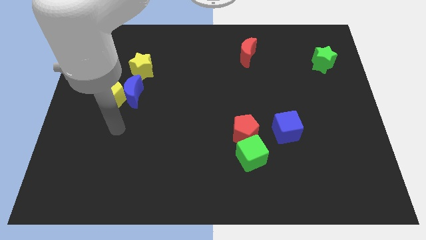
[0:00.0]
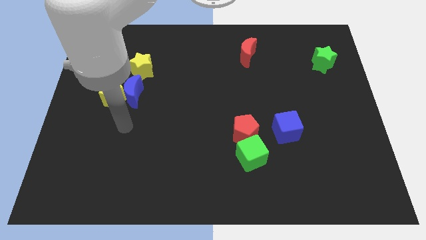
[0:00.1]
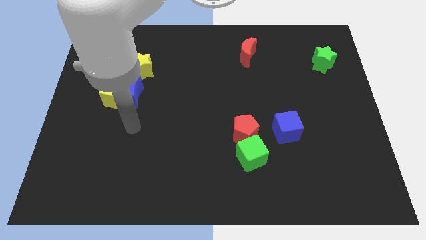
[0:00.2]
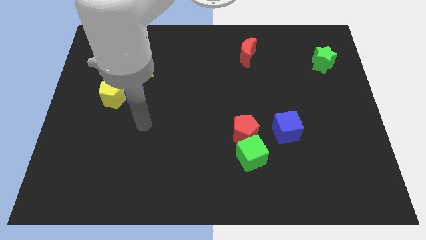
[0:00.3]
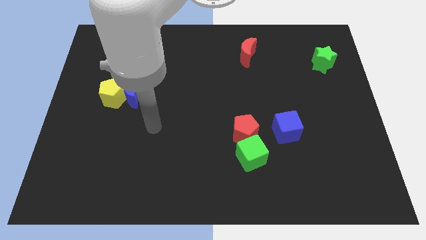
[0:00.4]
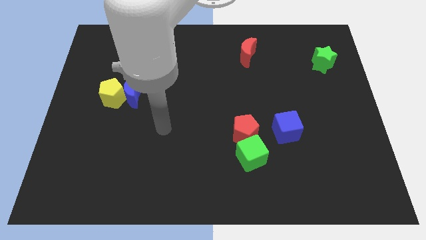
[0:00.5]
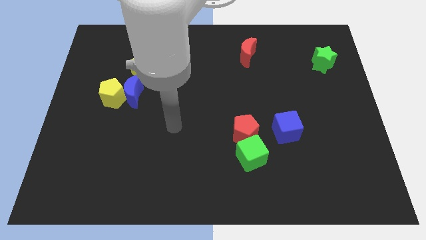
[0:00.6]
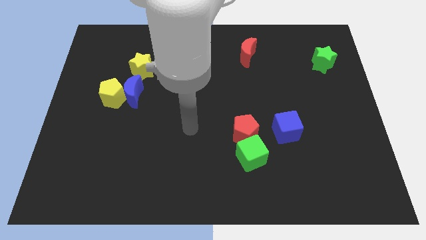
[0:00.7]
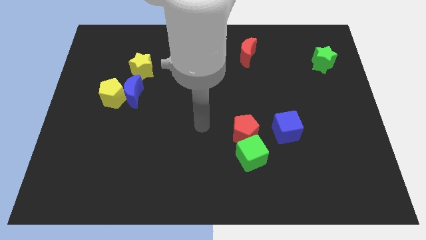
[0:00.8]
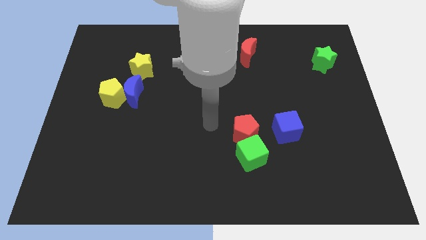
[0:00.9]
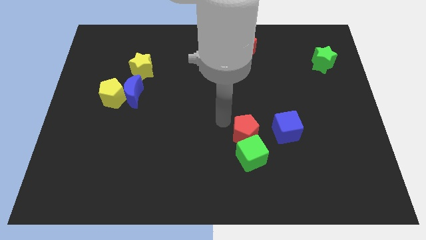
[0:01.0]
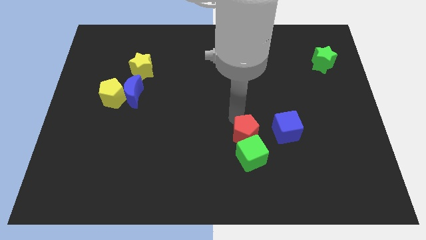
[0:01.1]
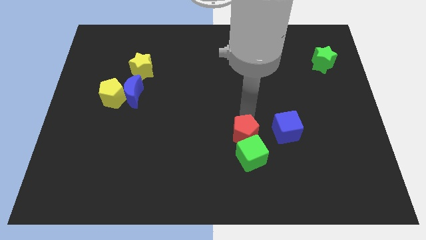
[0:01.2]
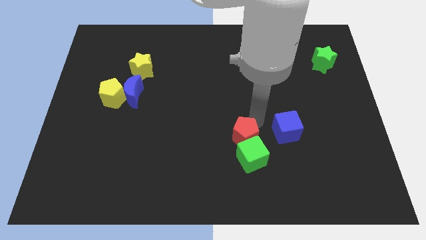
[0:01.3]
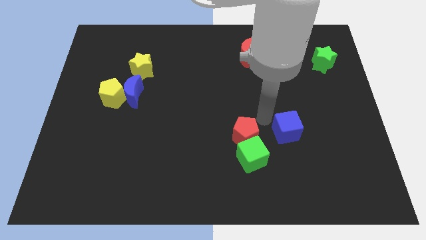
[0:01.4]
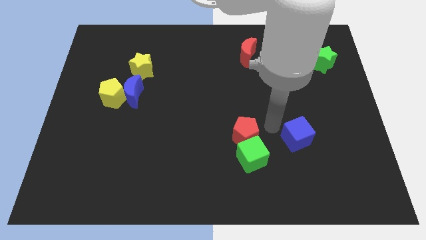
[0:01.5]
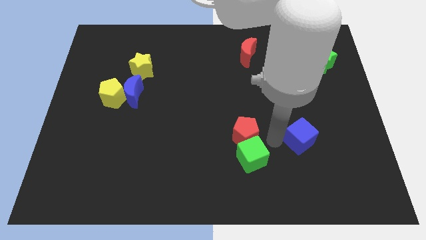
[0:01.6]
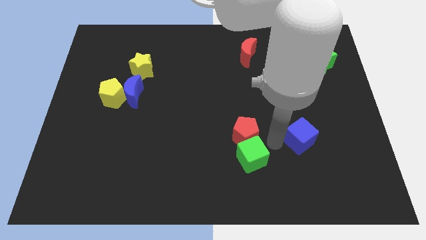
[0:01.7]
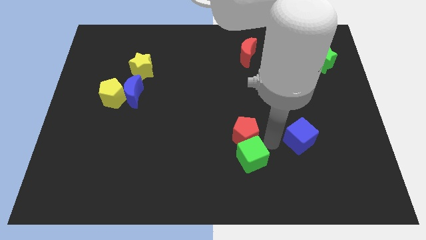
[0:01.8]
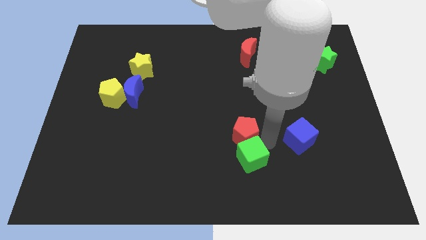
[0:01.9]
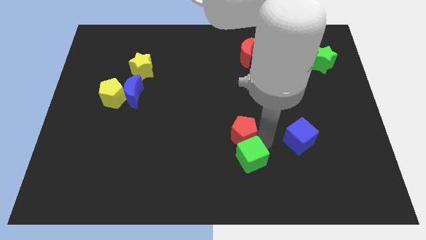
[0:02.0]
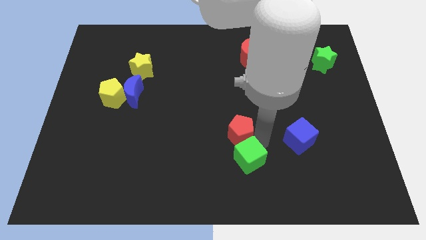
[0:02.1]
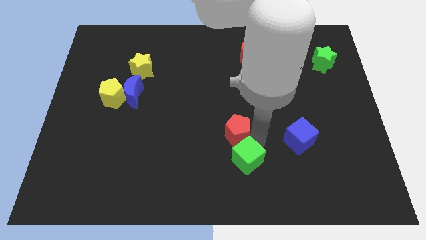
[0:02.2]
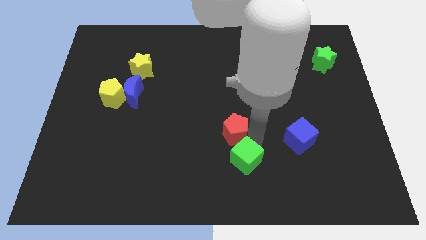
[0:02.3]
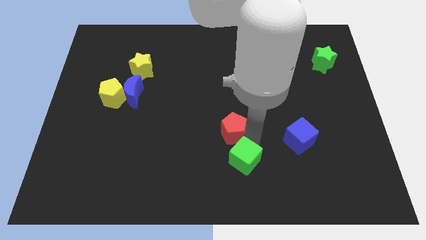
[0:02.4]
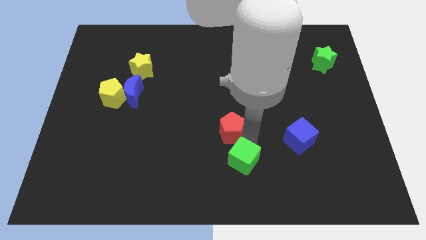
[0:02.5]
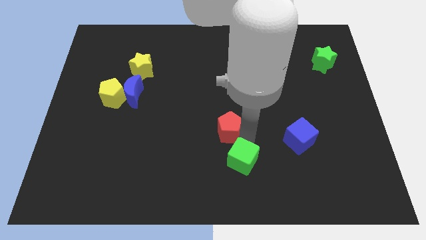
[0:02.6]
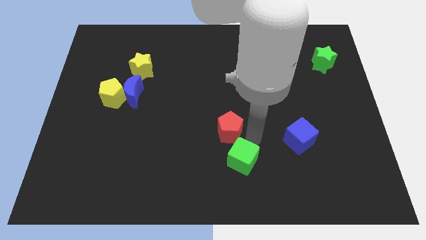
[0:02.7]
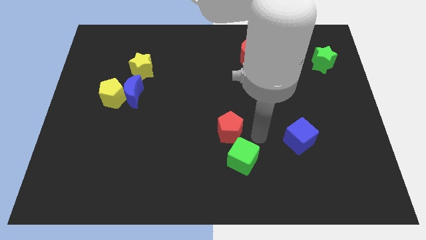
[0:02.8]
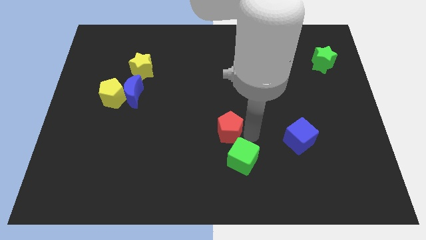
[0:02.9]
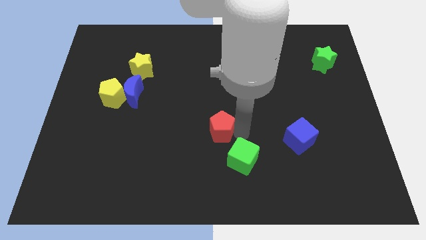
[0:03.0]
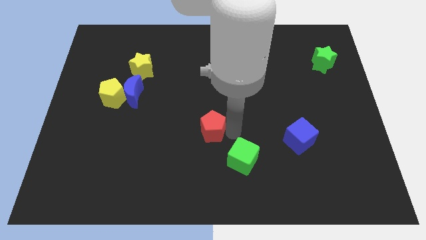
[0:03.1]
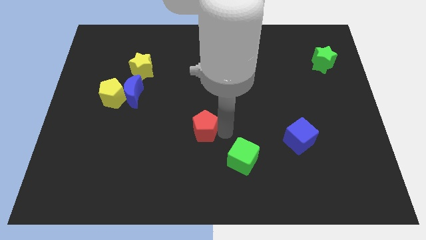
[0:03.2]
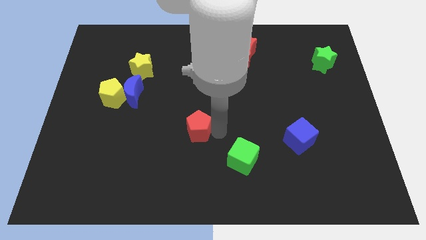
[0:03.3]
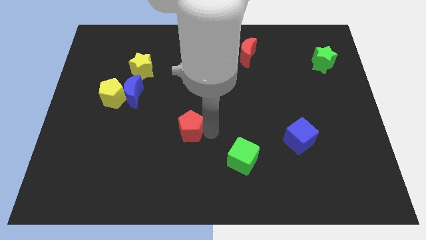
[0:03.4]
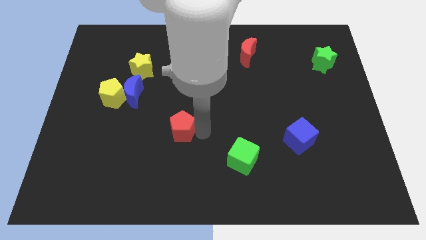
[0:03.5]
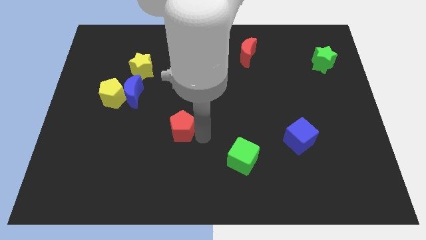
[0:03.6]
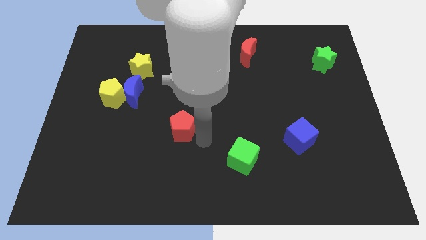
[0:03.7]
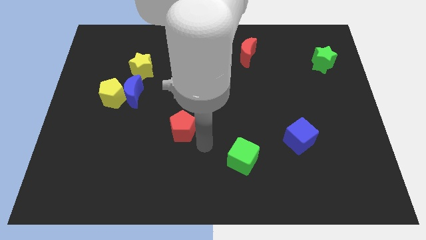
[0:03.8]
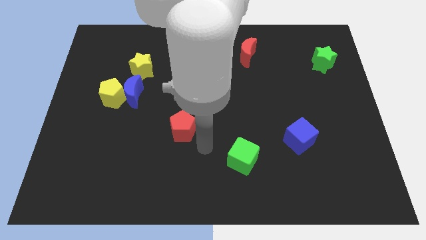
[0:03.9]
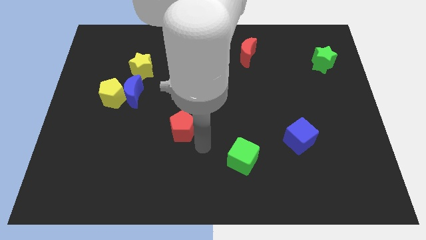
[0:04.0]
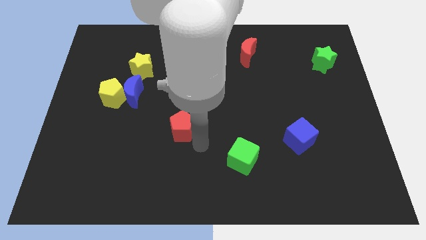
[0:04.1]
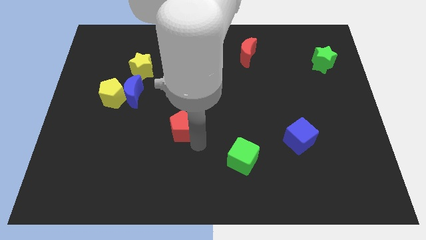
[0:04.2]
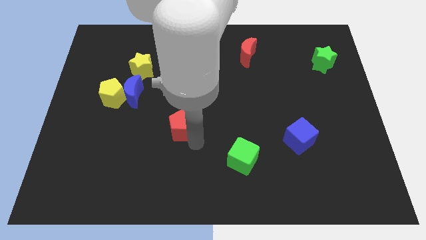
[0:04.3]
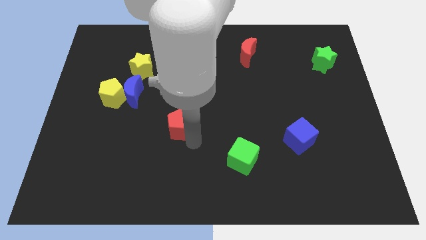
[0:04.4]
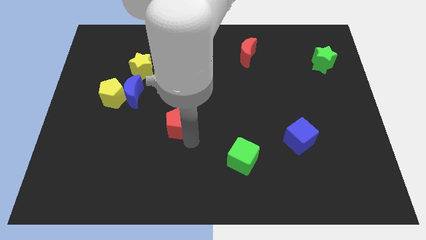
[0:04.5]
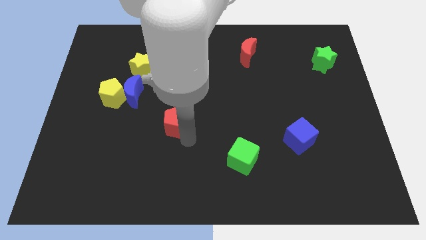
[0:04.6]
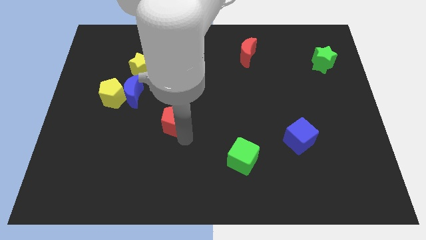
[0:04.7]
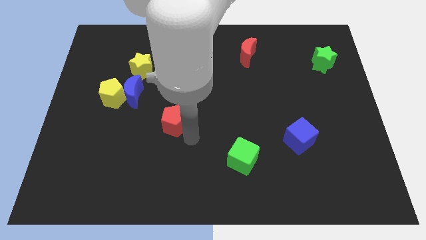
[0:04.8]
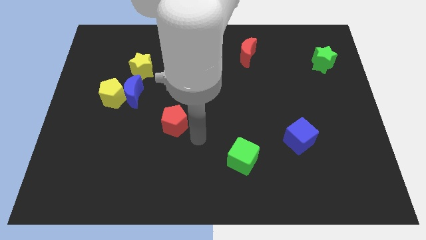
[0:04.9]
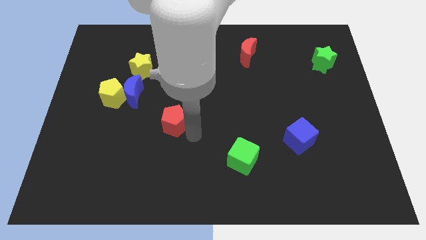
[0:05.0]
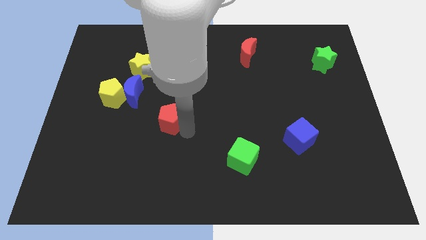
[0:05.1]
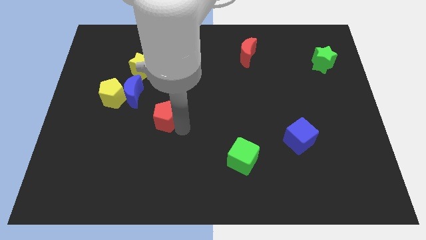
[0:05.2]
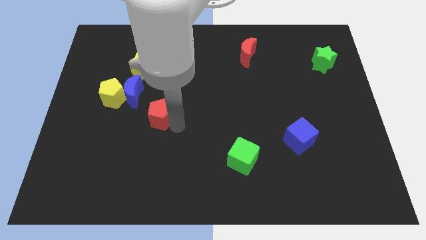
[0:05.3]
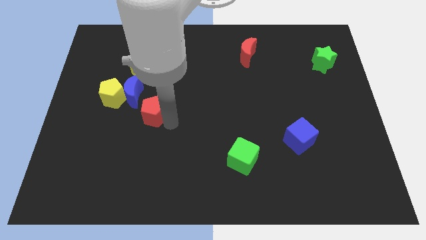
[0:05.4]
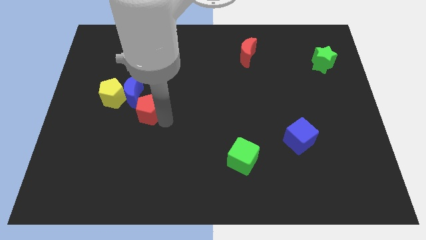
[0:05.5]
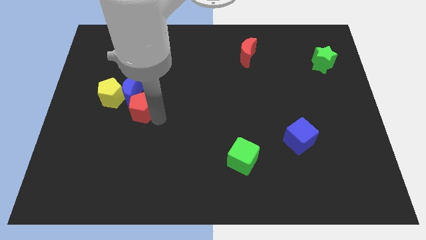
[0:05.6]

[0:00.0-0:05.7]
put the red pentagon to the blue moon

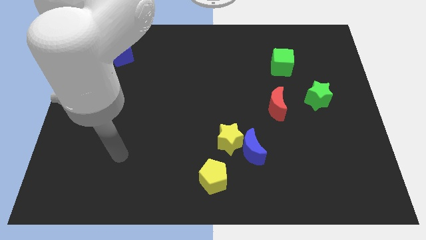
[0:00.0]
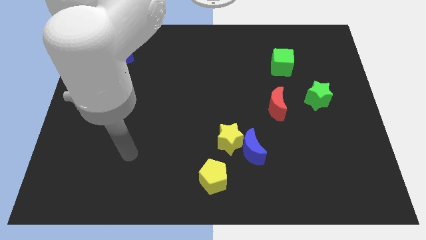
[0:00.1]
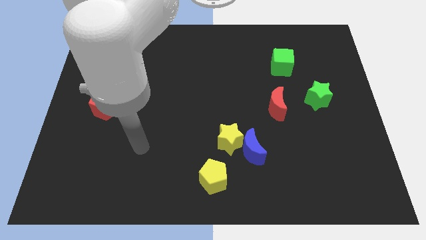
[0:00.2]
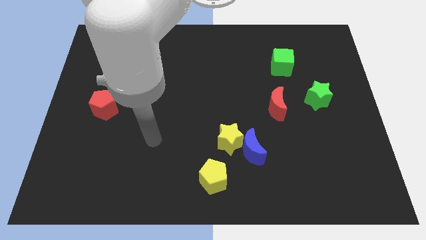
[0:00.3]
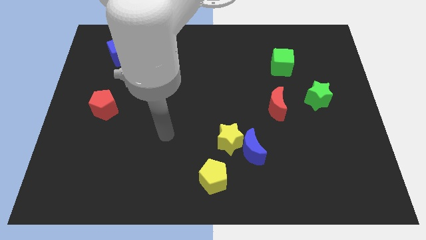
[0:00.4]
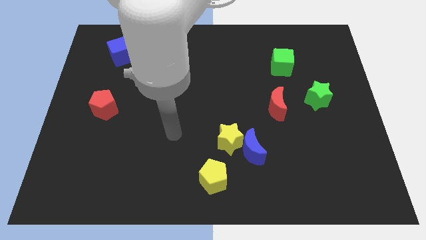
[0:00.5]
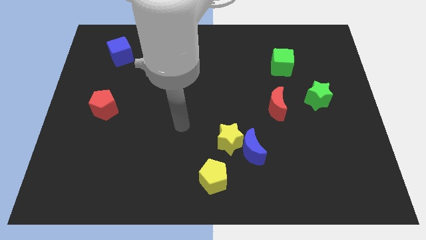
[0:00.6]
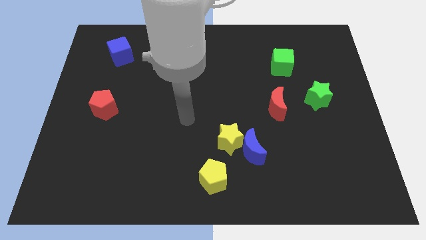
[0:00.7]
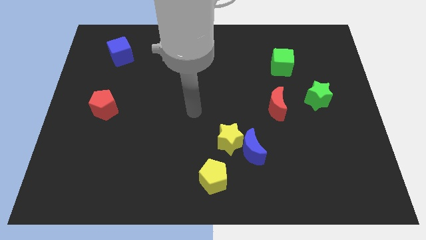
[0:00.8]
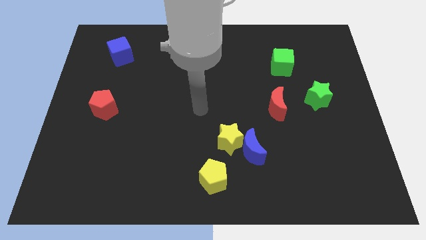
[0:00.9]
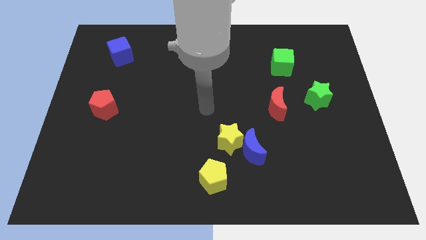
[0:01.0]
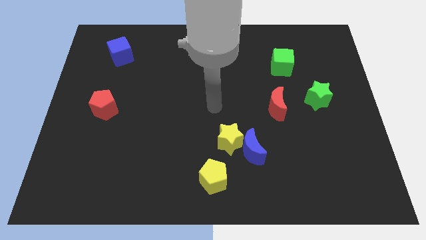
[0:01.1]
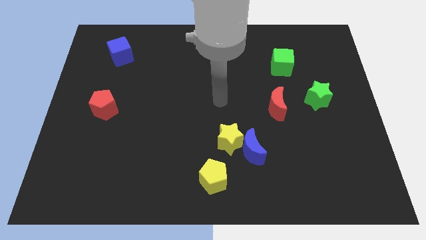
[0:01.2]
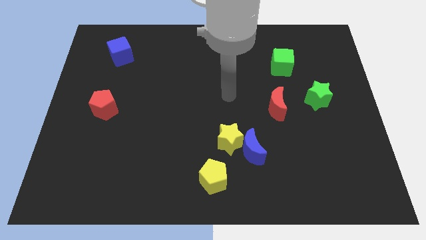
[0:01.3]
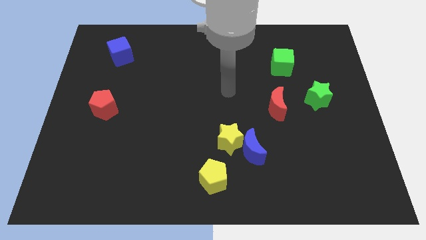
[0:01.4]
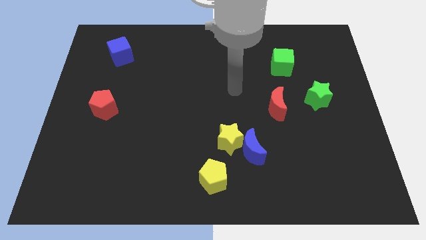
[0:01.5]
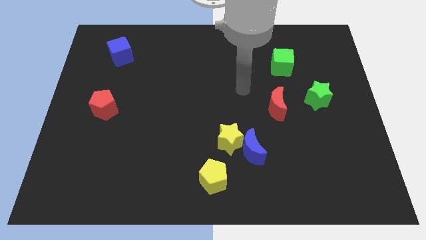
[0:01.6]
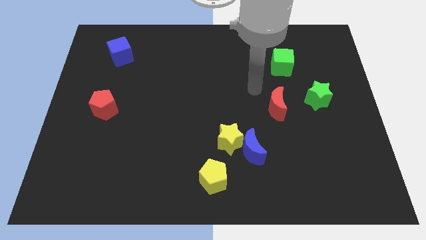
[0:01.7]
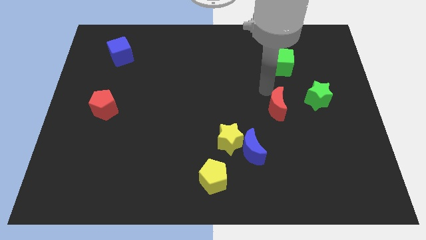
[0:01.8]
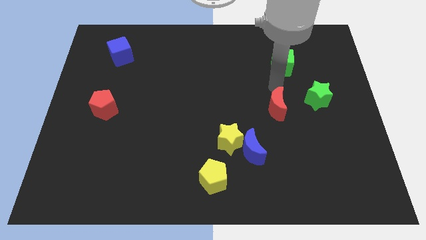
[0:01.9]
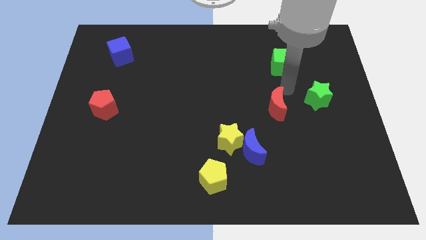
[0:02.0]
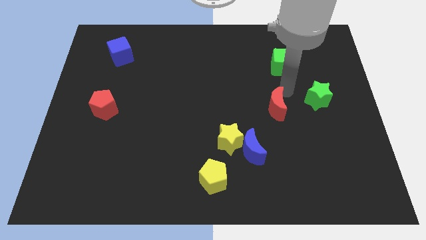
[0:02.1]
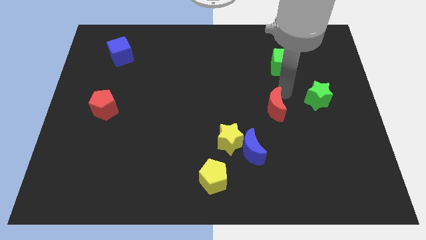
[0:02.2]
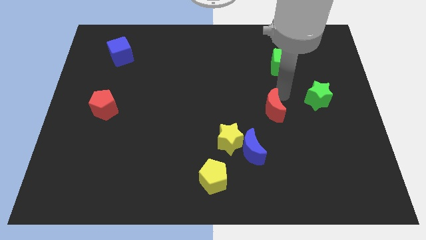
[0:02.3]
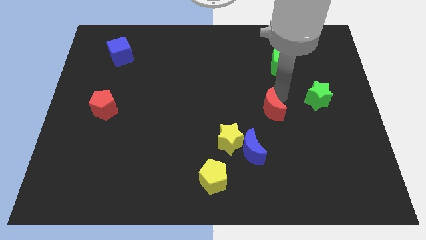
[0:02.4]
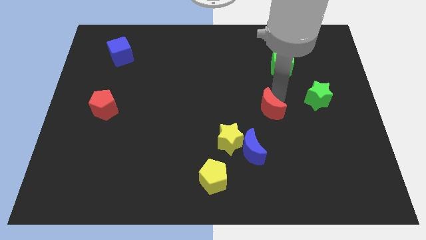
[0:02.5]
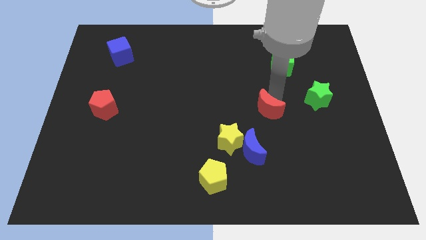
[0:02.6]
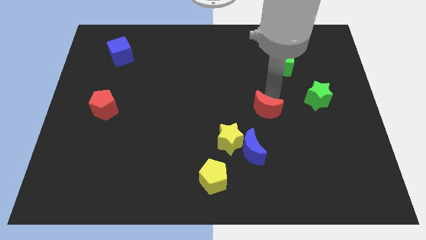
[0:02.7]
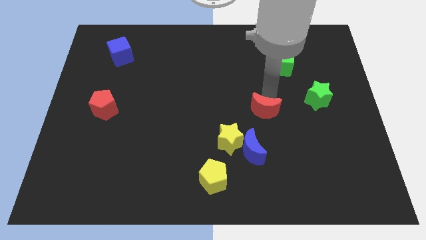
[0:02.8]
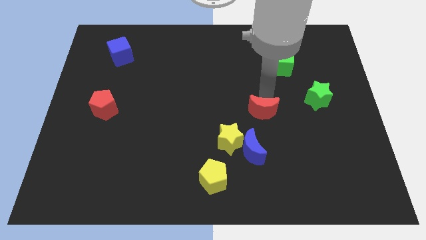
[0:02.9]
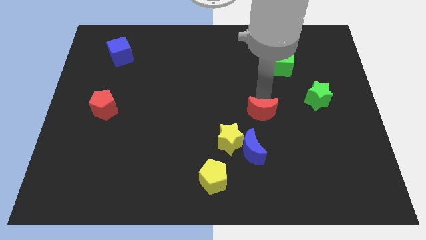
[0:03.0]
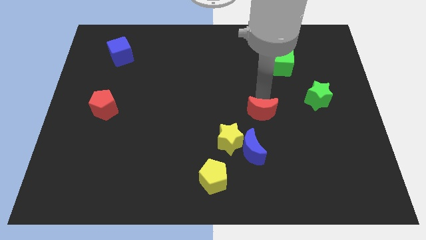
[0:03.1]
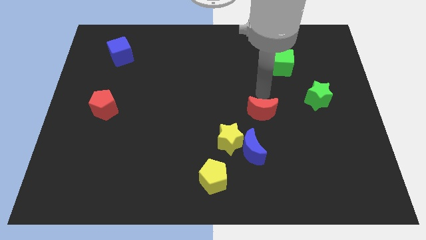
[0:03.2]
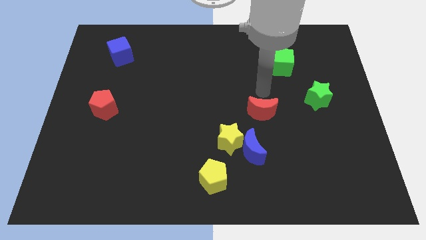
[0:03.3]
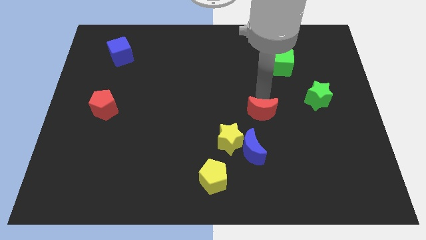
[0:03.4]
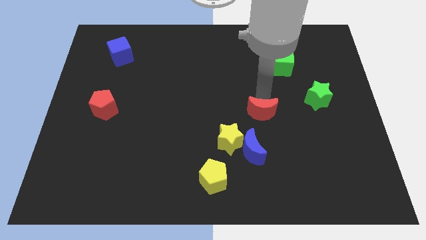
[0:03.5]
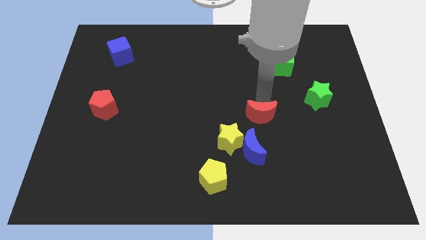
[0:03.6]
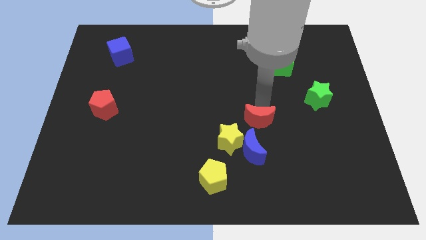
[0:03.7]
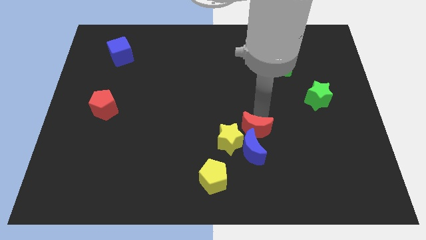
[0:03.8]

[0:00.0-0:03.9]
move the red moon close to the blue moon
